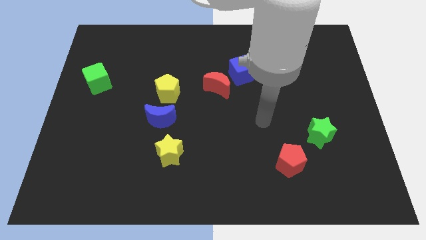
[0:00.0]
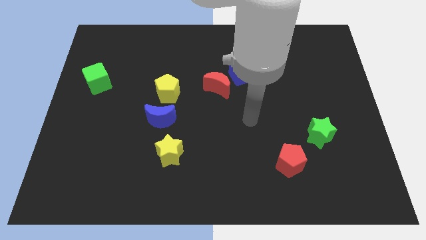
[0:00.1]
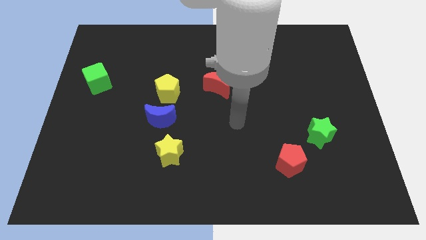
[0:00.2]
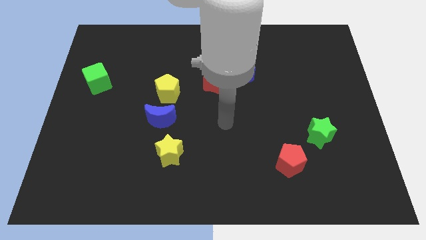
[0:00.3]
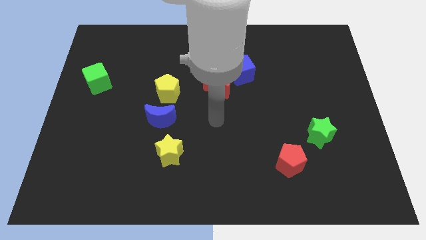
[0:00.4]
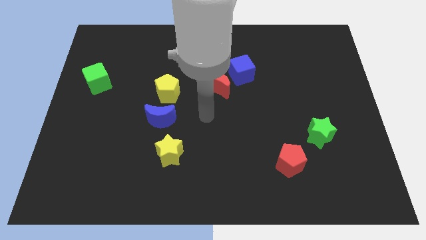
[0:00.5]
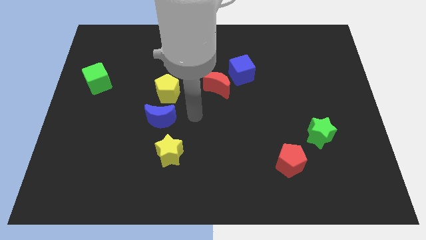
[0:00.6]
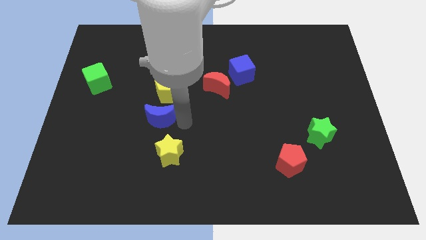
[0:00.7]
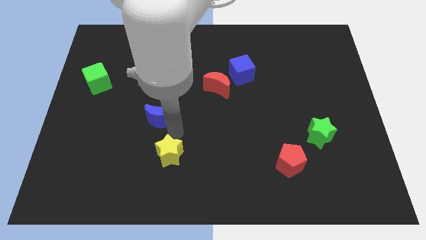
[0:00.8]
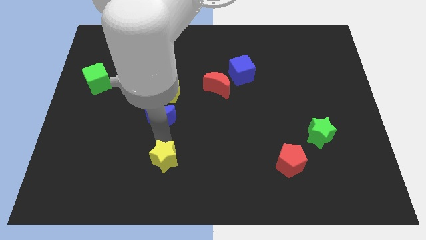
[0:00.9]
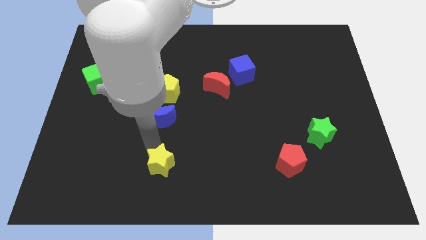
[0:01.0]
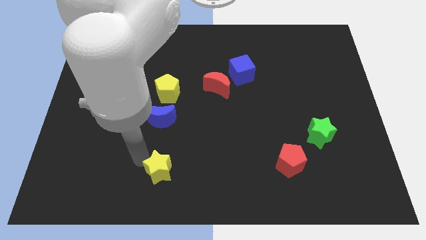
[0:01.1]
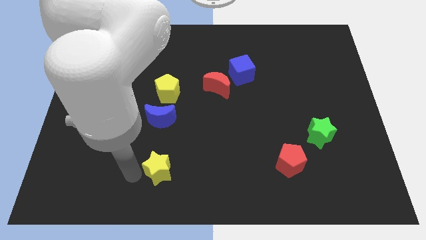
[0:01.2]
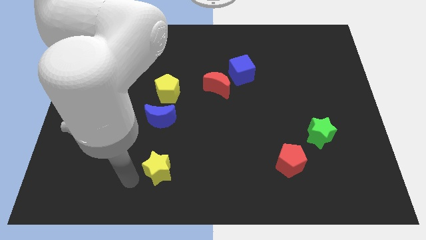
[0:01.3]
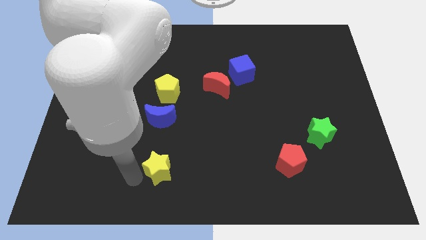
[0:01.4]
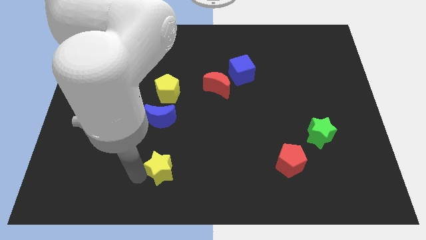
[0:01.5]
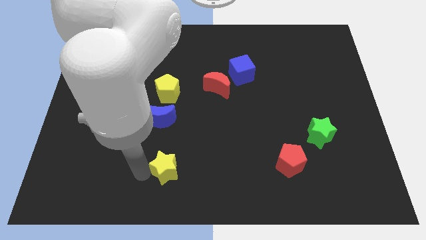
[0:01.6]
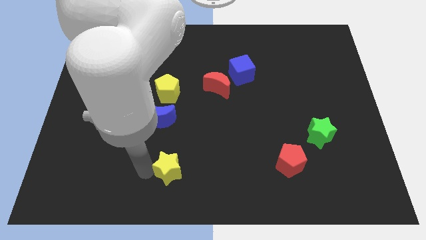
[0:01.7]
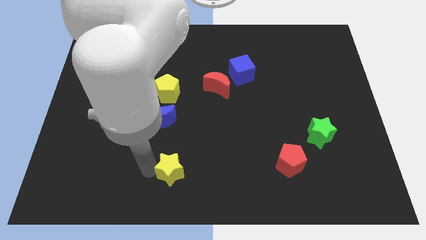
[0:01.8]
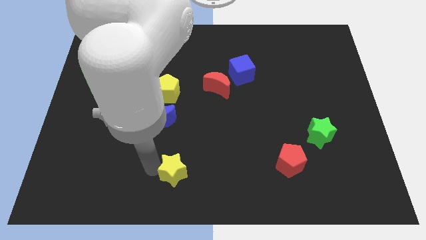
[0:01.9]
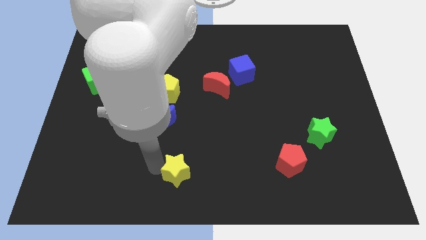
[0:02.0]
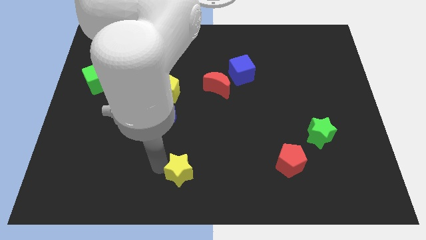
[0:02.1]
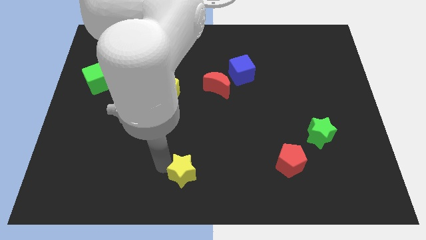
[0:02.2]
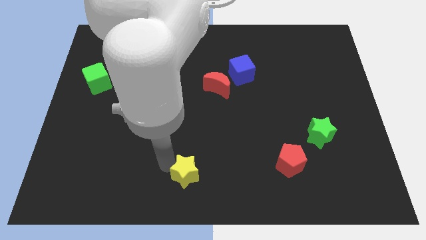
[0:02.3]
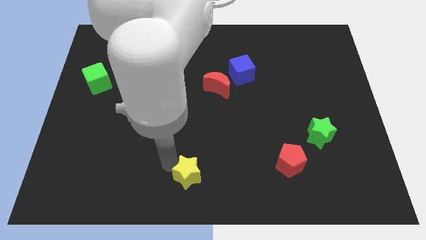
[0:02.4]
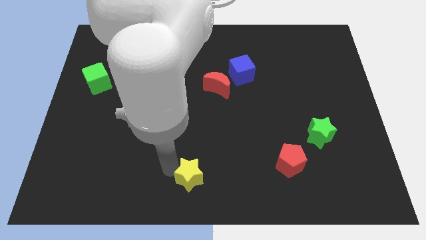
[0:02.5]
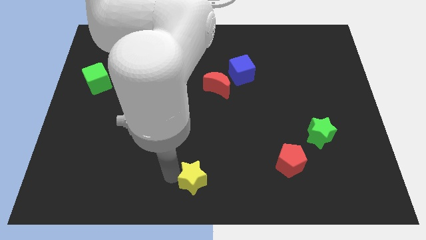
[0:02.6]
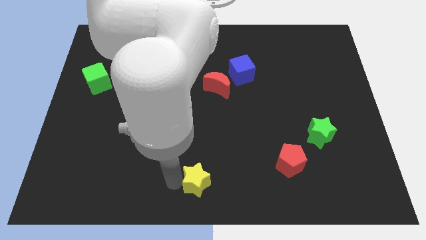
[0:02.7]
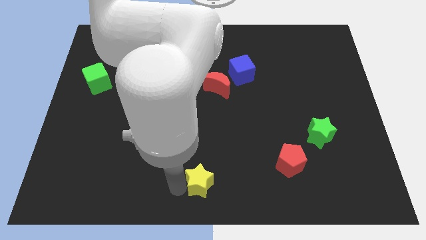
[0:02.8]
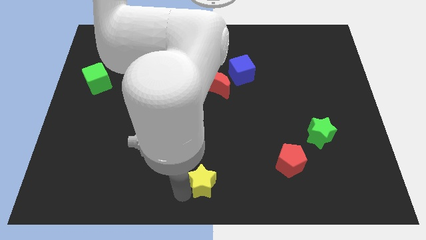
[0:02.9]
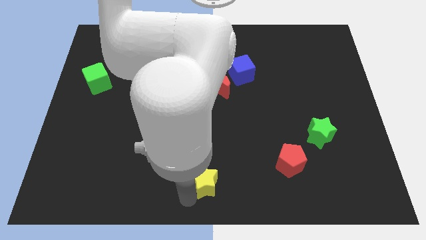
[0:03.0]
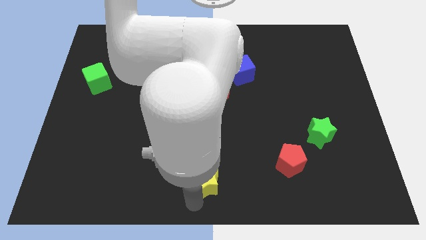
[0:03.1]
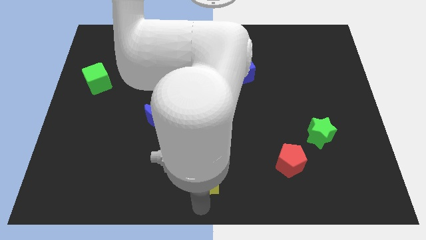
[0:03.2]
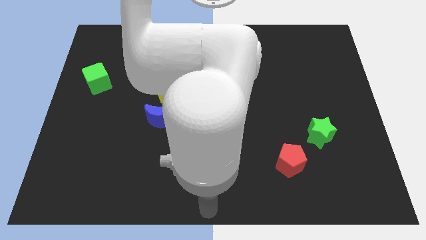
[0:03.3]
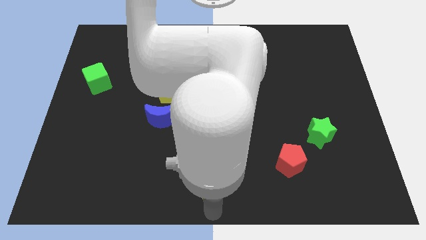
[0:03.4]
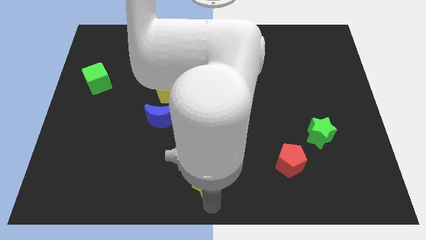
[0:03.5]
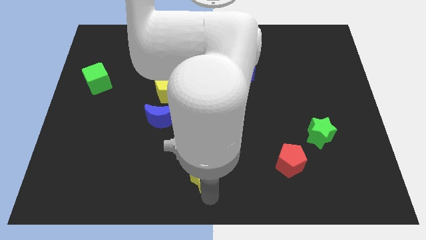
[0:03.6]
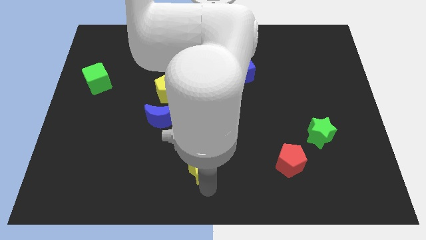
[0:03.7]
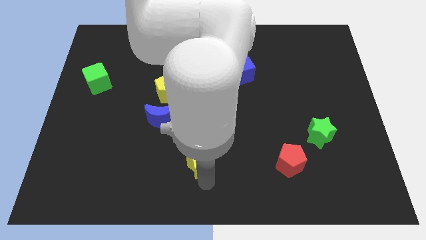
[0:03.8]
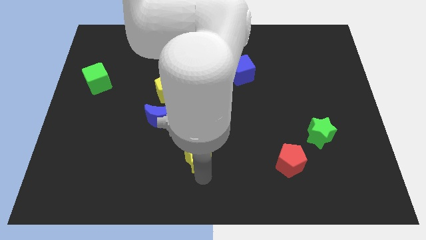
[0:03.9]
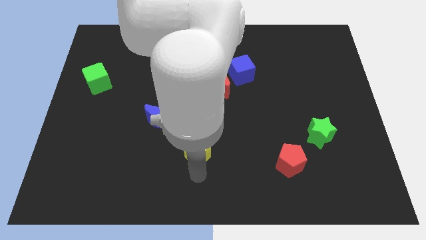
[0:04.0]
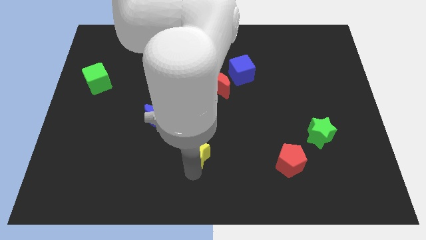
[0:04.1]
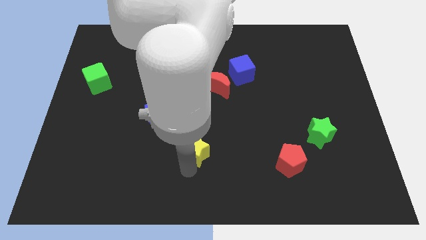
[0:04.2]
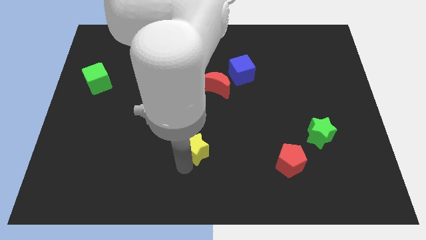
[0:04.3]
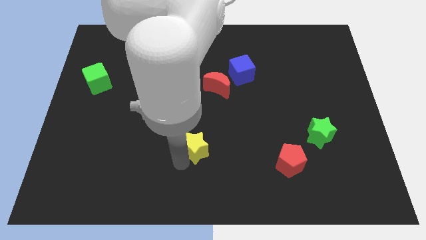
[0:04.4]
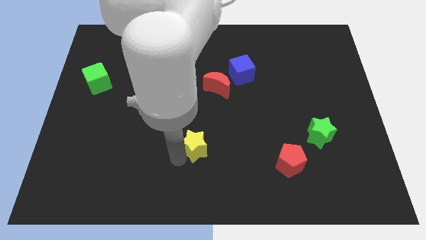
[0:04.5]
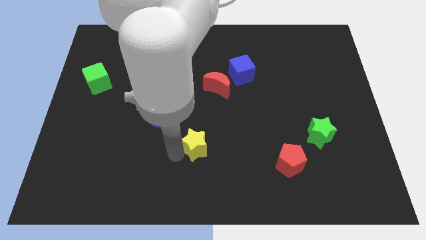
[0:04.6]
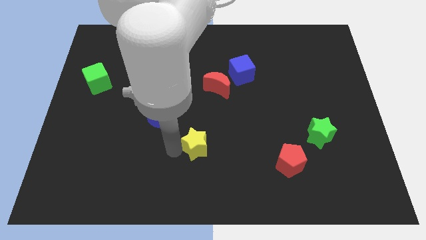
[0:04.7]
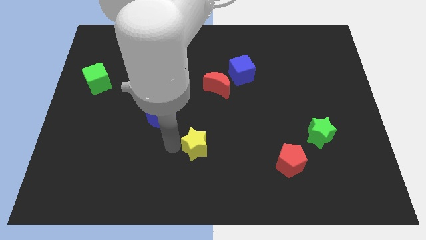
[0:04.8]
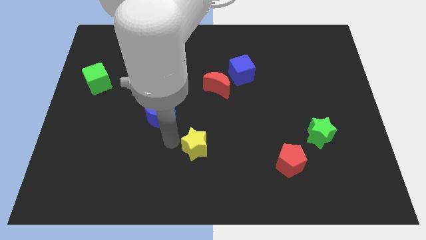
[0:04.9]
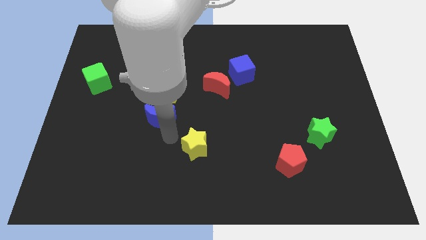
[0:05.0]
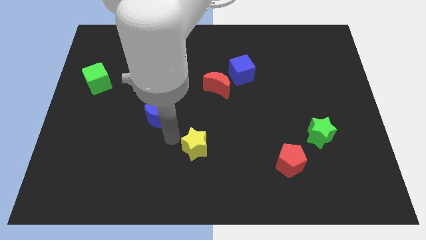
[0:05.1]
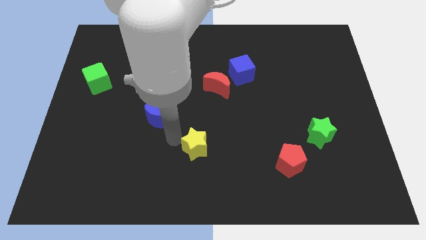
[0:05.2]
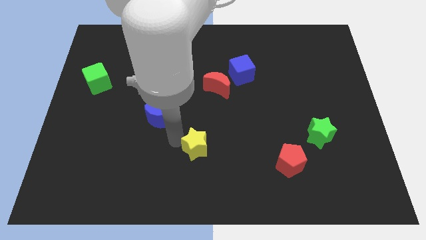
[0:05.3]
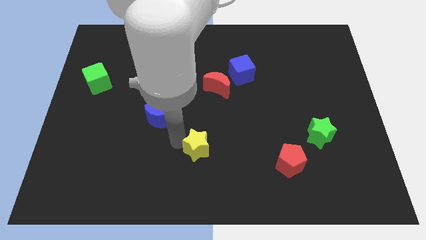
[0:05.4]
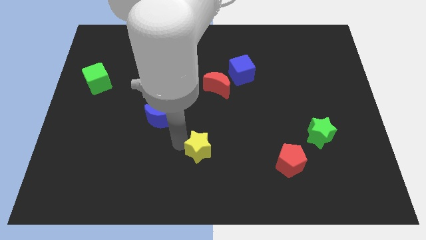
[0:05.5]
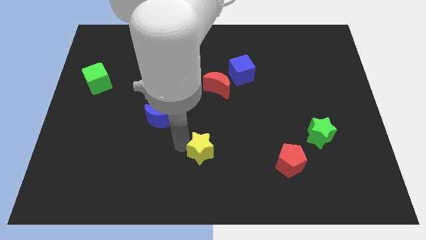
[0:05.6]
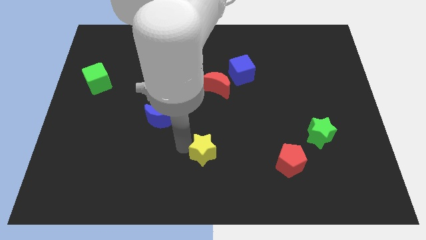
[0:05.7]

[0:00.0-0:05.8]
slightly push the yellow star right

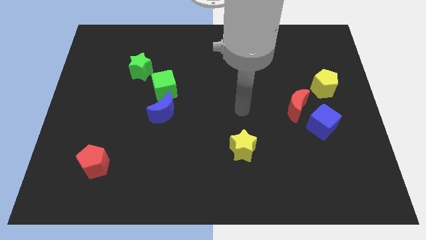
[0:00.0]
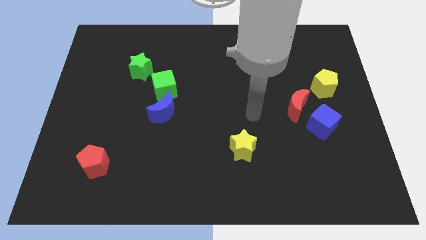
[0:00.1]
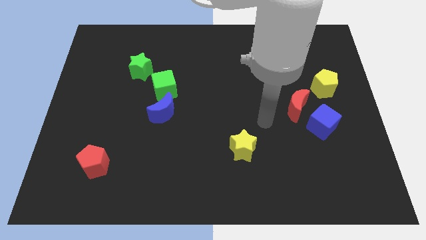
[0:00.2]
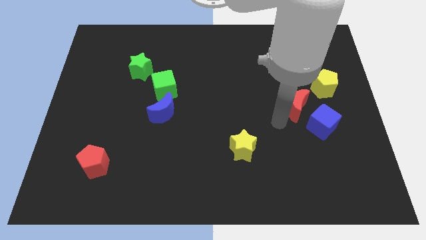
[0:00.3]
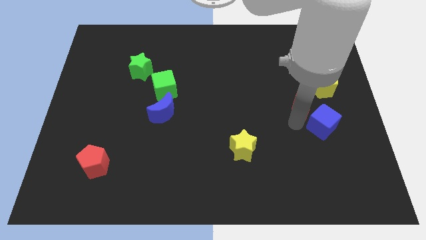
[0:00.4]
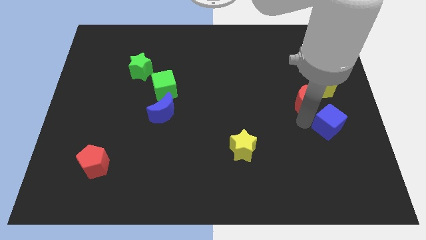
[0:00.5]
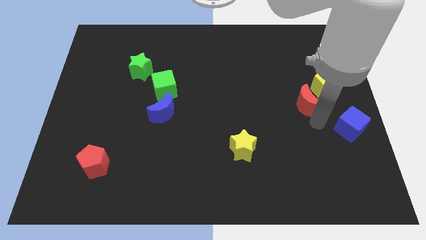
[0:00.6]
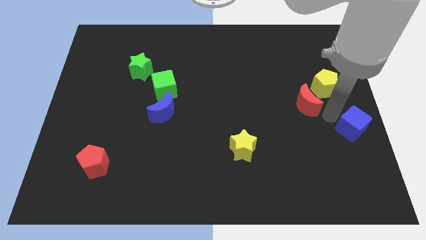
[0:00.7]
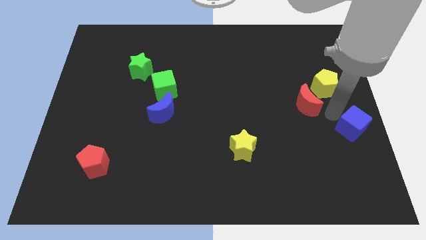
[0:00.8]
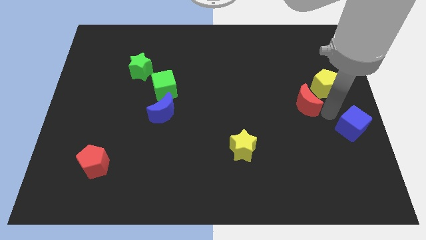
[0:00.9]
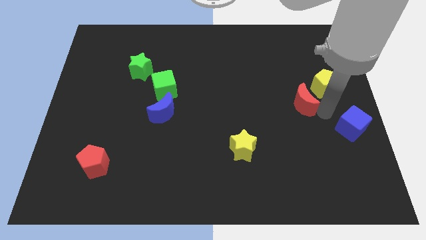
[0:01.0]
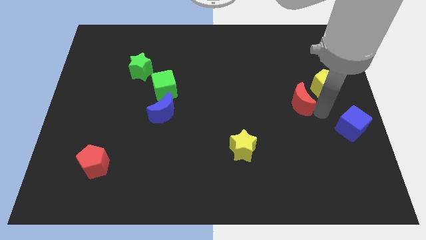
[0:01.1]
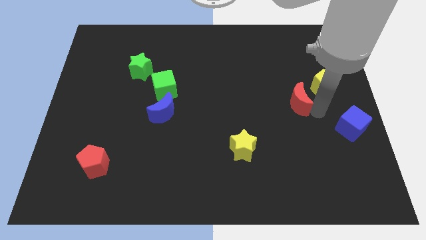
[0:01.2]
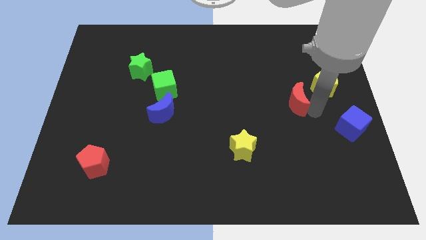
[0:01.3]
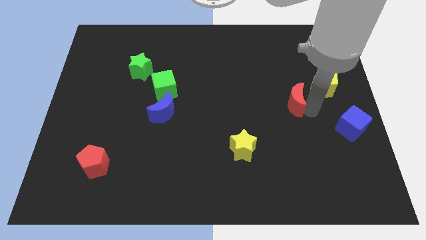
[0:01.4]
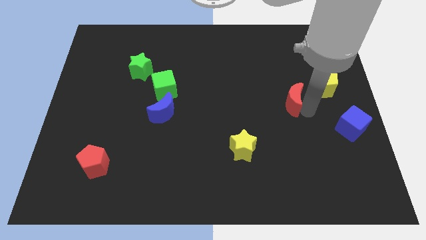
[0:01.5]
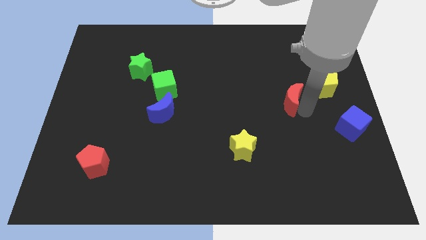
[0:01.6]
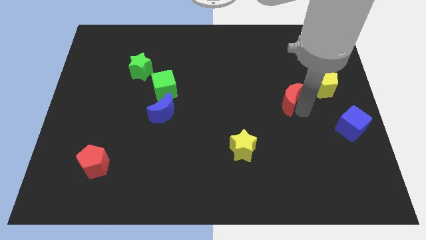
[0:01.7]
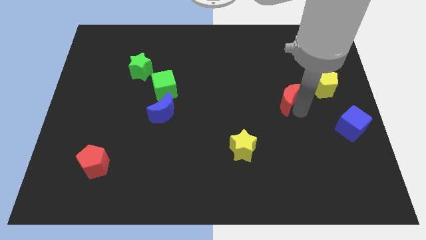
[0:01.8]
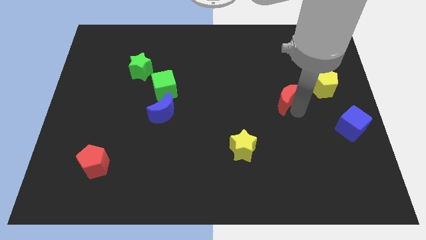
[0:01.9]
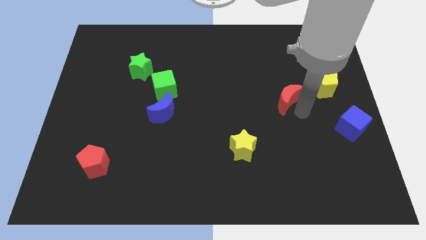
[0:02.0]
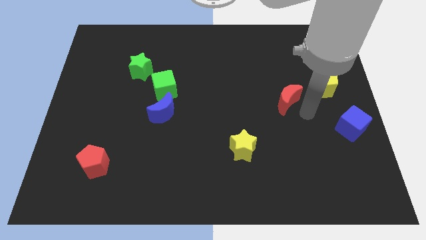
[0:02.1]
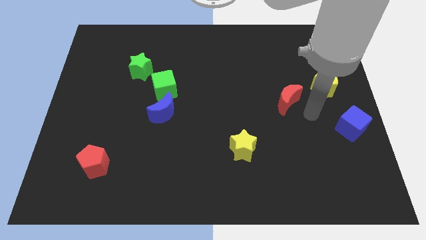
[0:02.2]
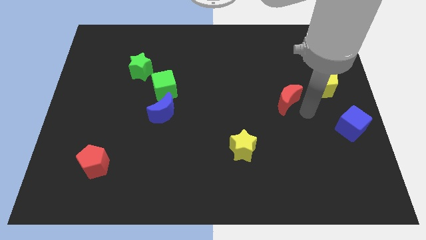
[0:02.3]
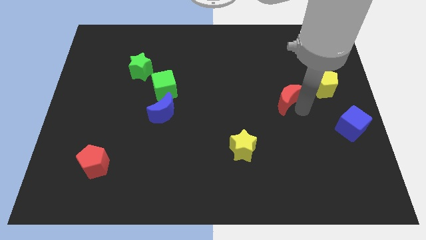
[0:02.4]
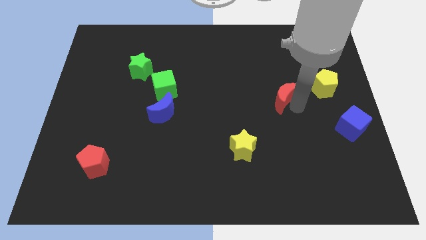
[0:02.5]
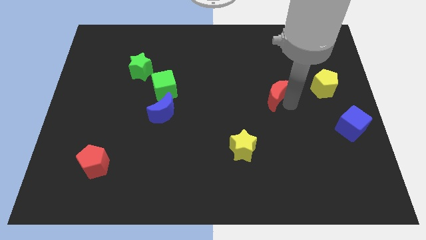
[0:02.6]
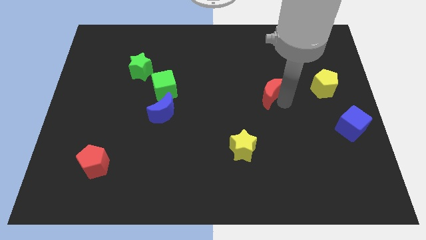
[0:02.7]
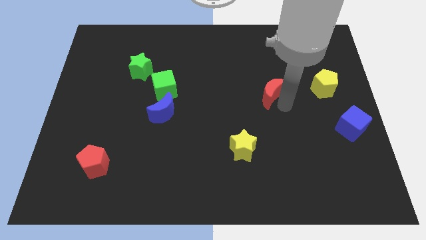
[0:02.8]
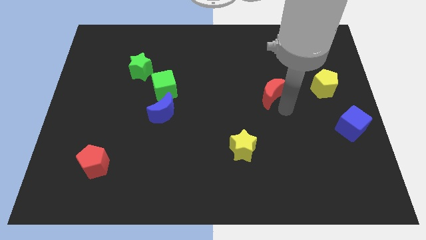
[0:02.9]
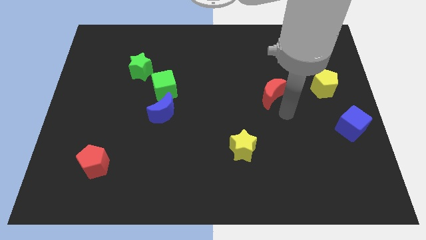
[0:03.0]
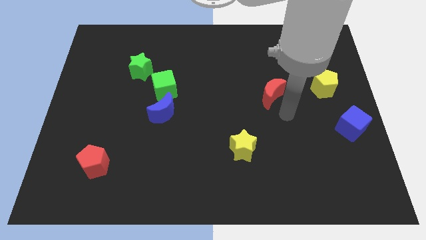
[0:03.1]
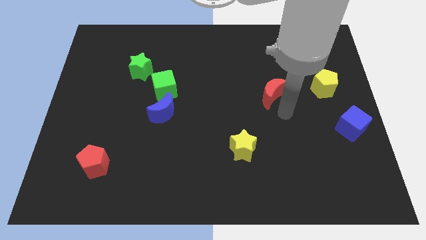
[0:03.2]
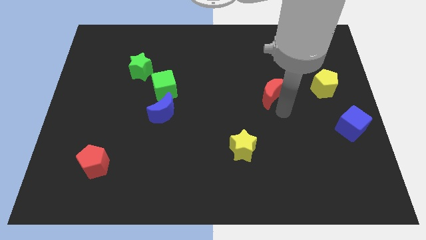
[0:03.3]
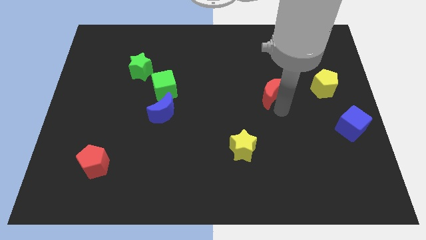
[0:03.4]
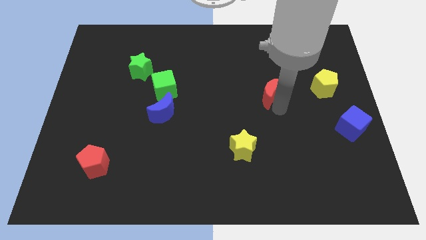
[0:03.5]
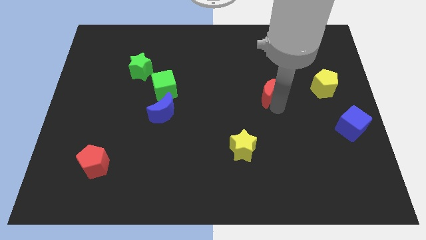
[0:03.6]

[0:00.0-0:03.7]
slightly slide the red moon upwards and to the left
